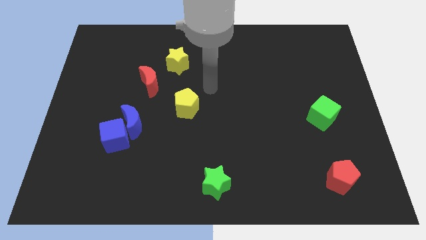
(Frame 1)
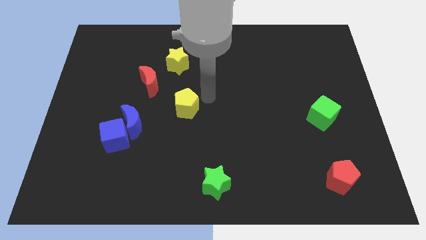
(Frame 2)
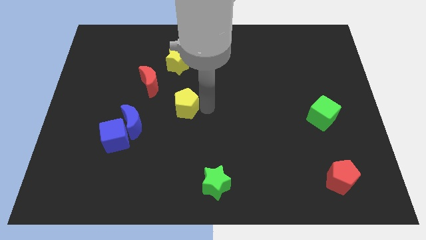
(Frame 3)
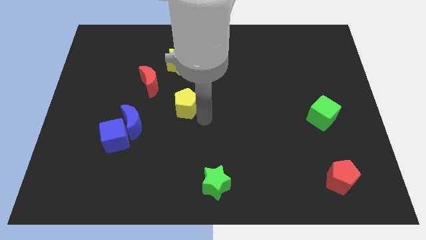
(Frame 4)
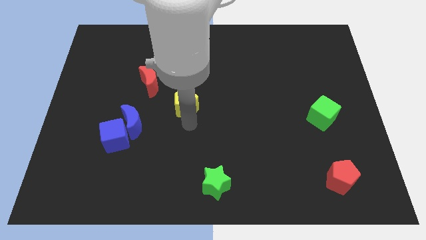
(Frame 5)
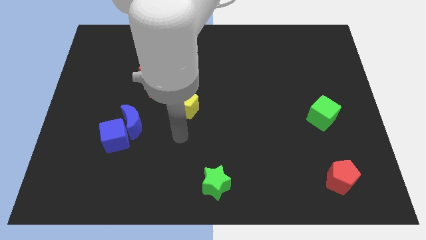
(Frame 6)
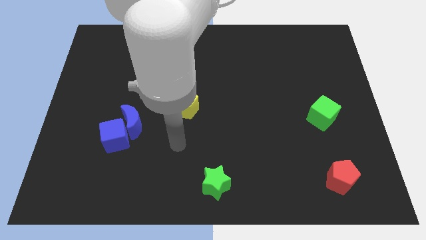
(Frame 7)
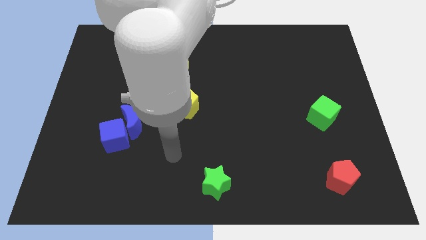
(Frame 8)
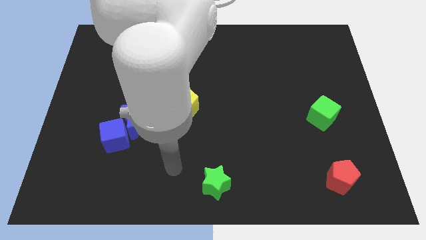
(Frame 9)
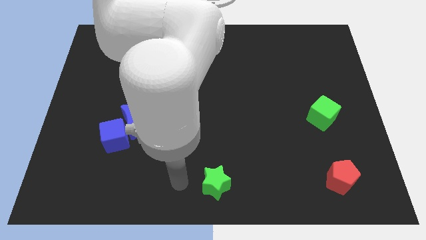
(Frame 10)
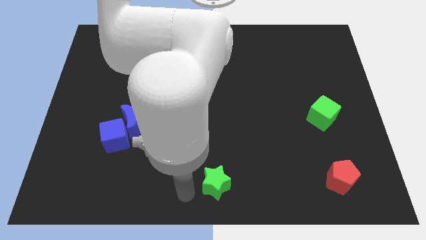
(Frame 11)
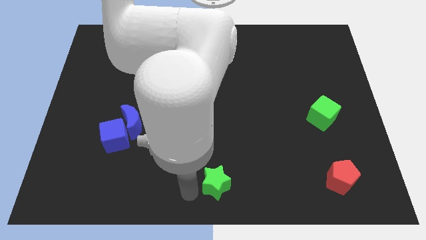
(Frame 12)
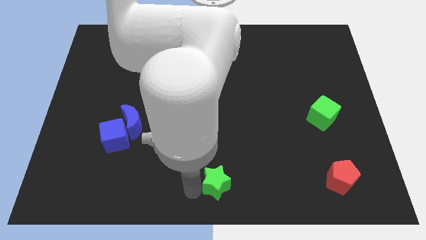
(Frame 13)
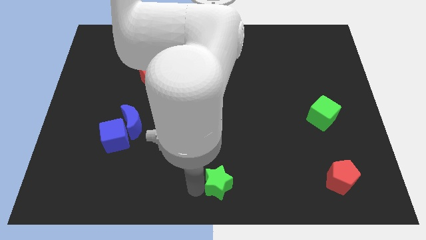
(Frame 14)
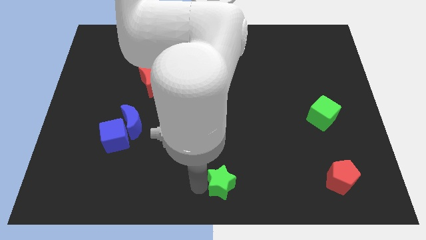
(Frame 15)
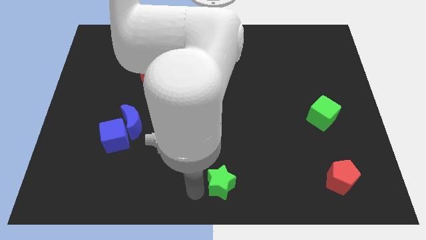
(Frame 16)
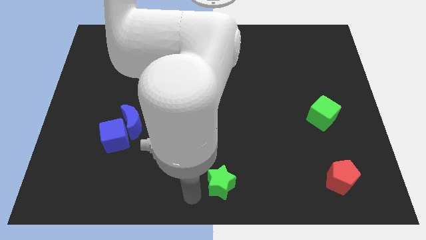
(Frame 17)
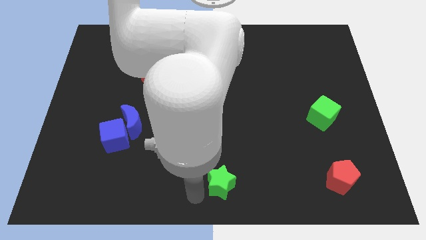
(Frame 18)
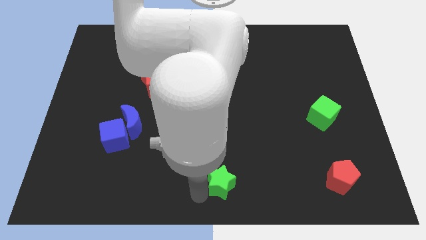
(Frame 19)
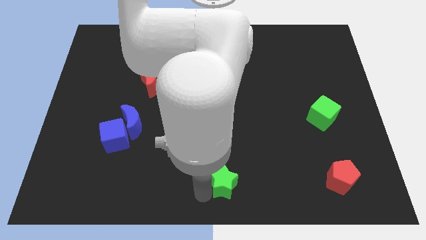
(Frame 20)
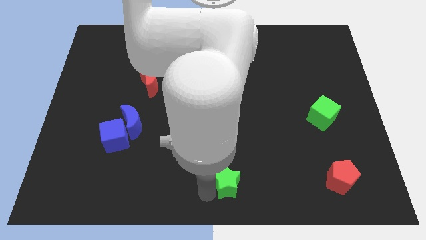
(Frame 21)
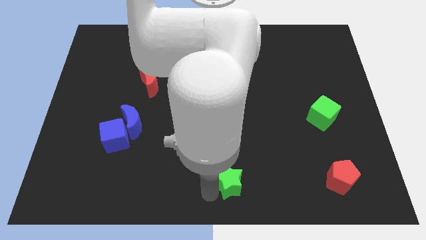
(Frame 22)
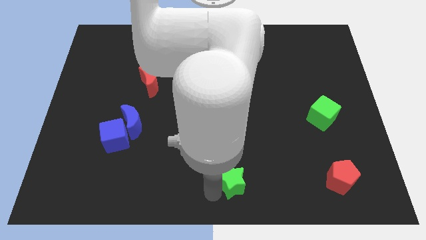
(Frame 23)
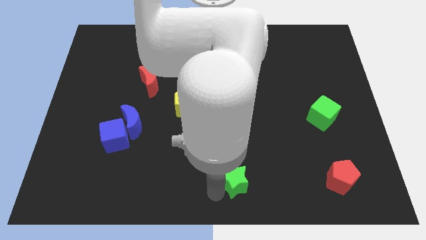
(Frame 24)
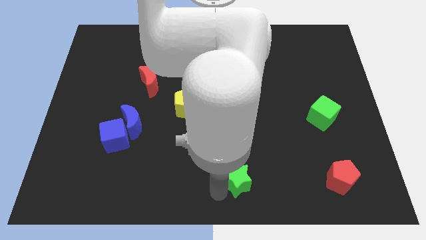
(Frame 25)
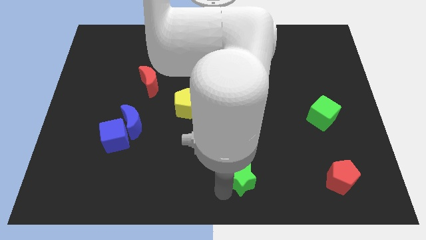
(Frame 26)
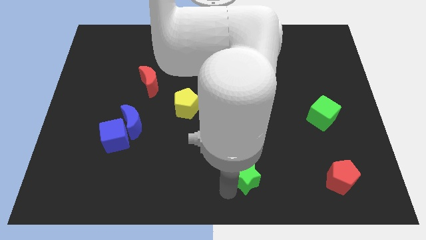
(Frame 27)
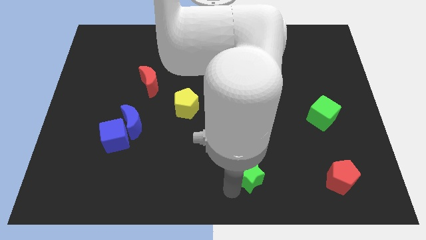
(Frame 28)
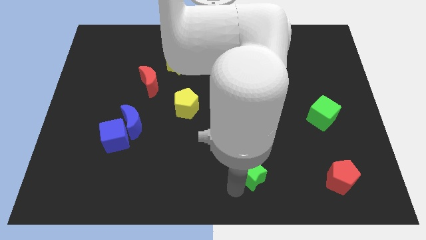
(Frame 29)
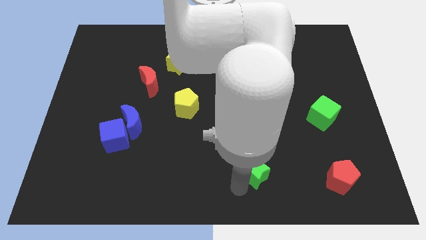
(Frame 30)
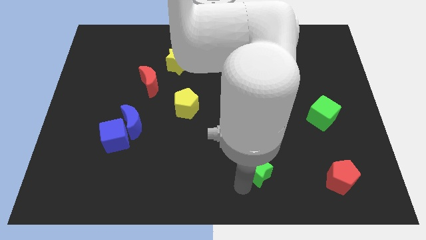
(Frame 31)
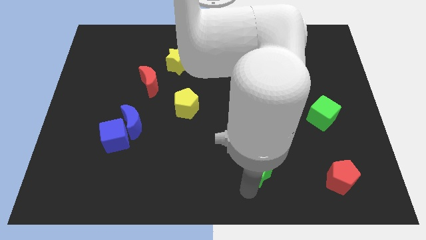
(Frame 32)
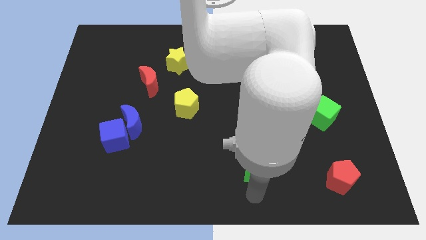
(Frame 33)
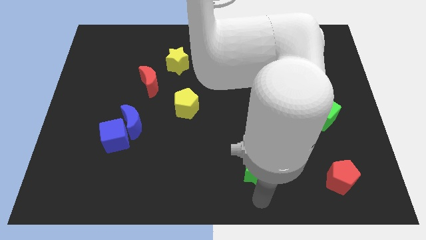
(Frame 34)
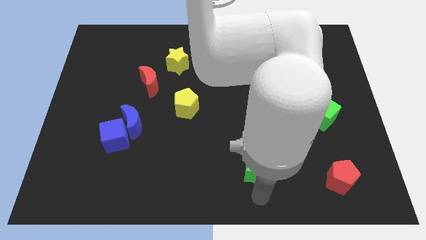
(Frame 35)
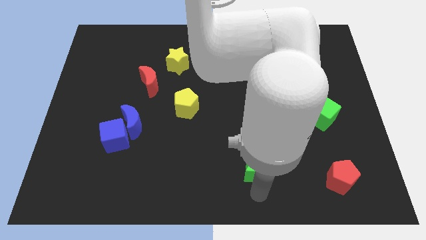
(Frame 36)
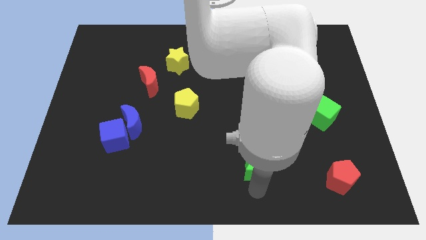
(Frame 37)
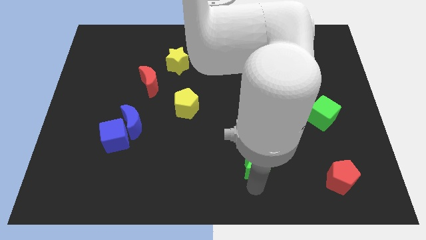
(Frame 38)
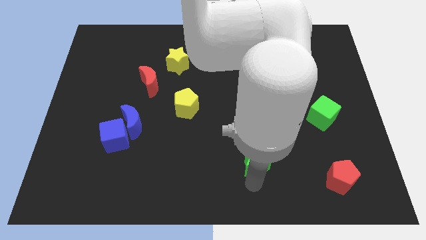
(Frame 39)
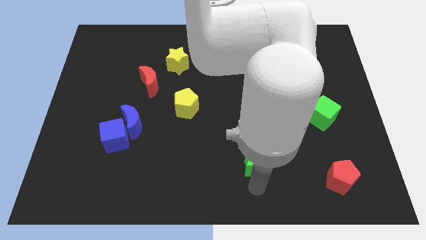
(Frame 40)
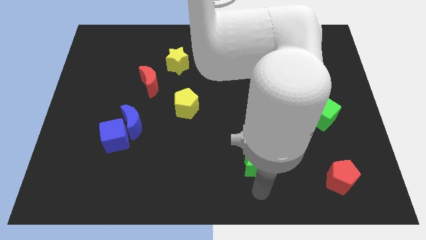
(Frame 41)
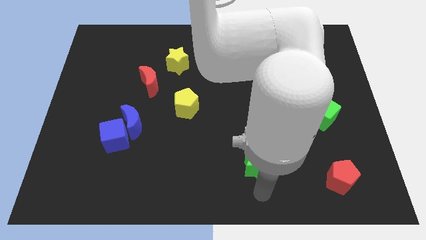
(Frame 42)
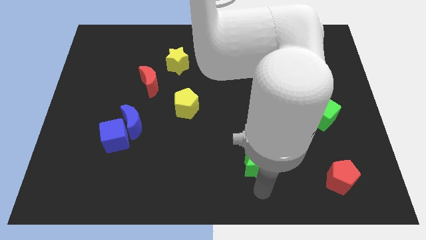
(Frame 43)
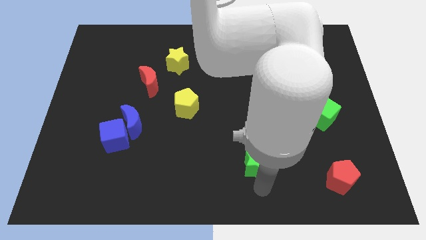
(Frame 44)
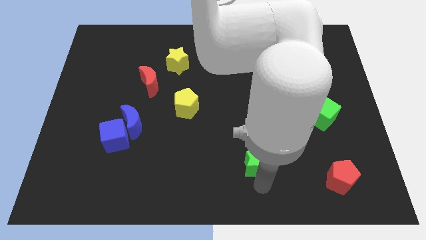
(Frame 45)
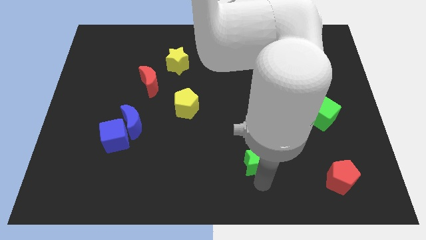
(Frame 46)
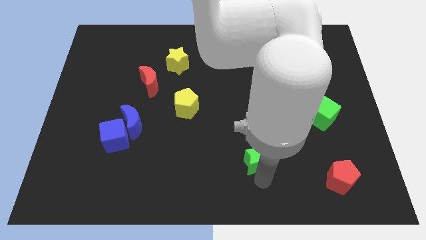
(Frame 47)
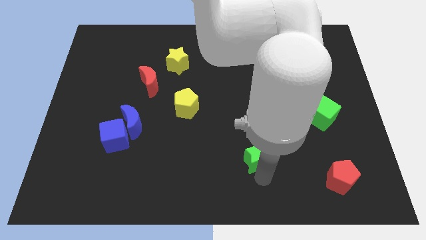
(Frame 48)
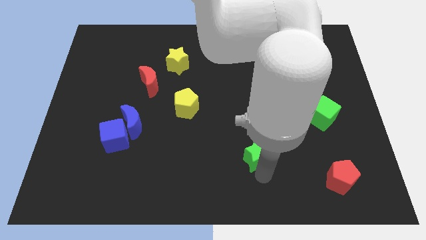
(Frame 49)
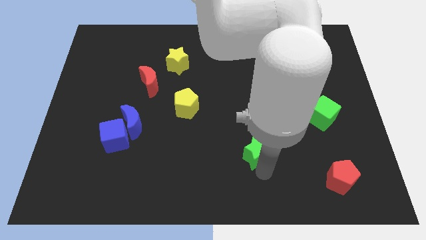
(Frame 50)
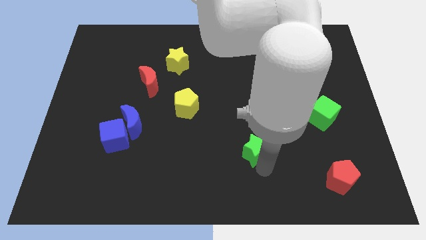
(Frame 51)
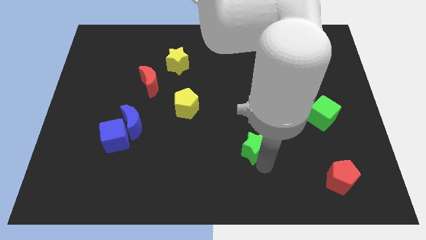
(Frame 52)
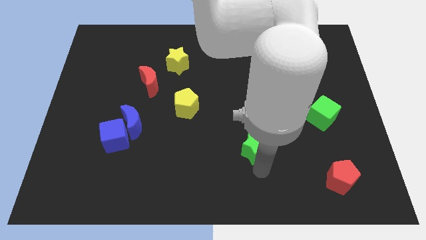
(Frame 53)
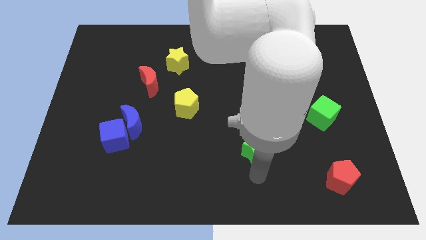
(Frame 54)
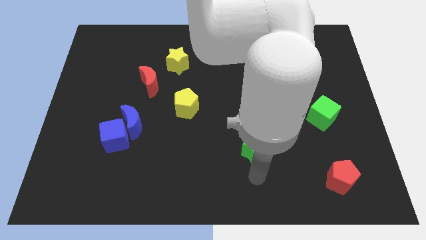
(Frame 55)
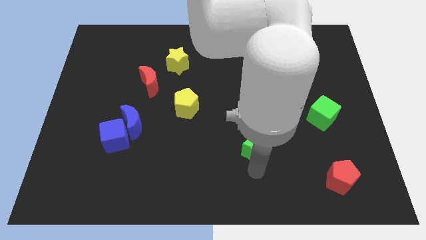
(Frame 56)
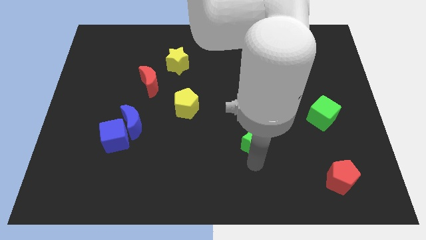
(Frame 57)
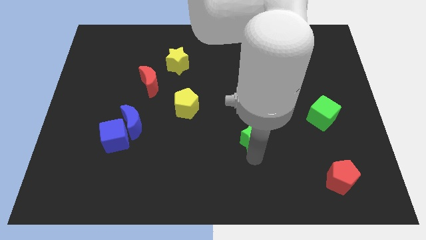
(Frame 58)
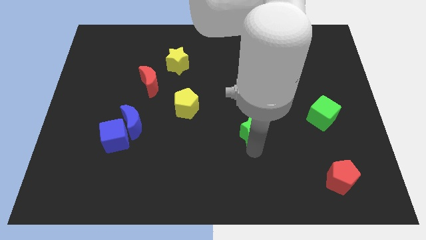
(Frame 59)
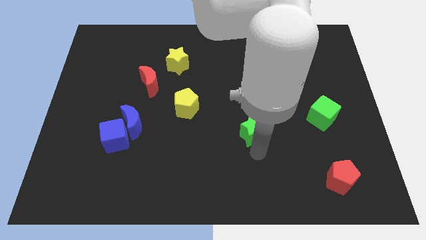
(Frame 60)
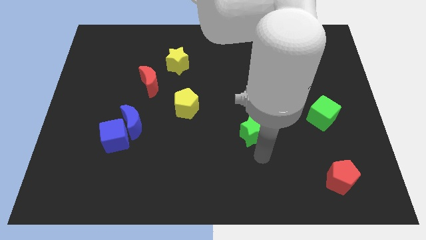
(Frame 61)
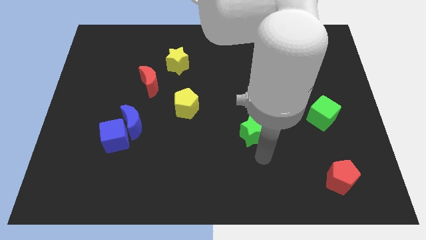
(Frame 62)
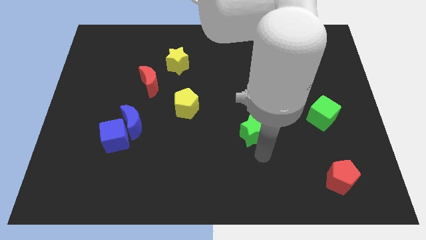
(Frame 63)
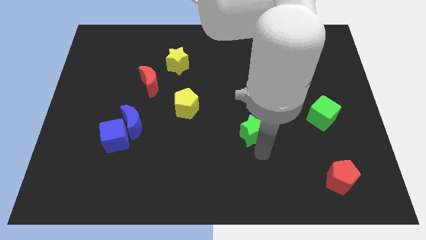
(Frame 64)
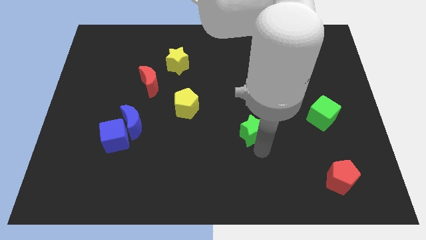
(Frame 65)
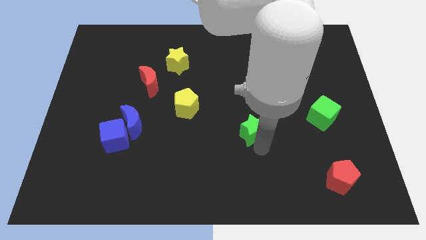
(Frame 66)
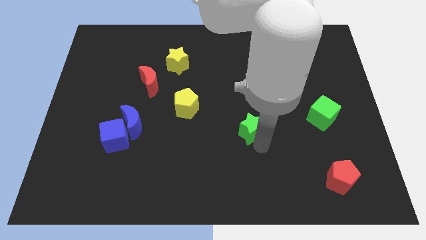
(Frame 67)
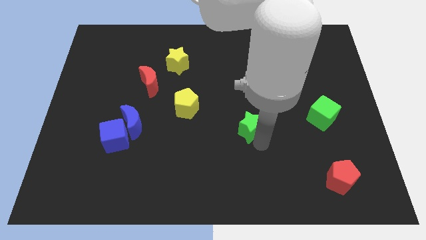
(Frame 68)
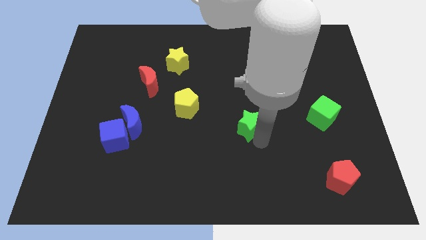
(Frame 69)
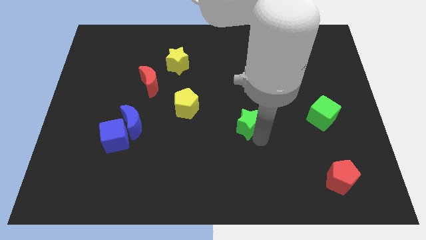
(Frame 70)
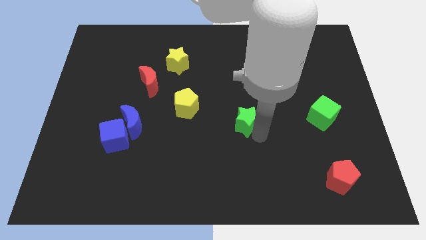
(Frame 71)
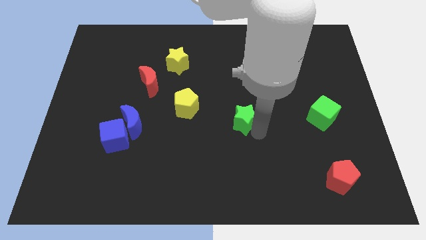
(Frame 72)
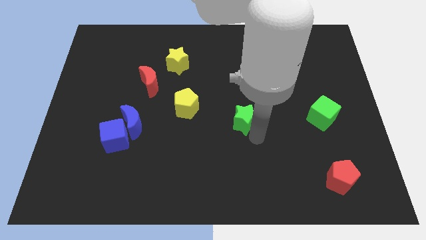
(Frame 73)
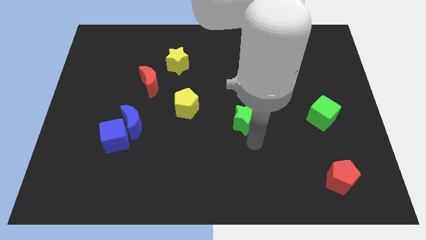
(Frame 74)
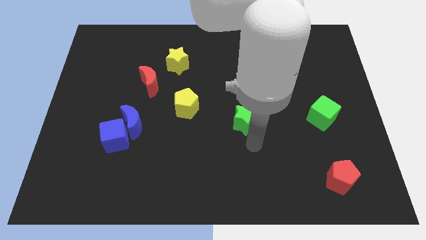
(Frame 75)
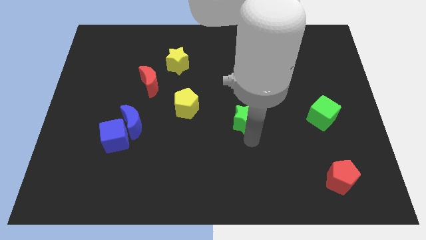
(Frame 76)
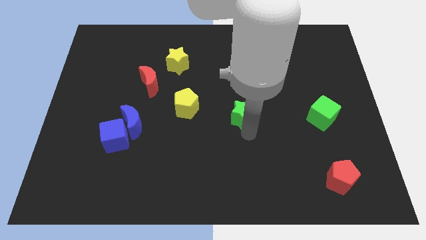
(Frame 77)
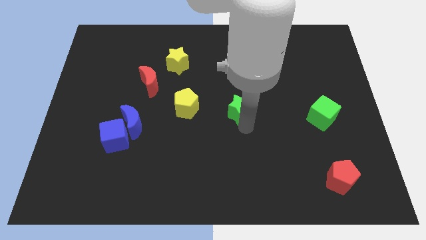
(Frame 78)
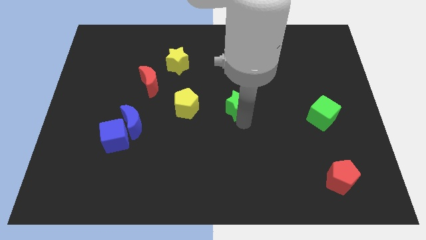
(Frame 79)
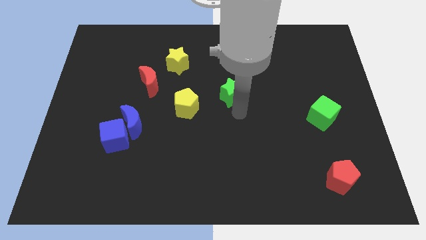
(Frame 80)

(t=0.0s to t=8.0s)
slide the green star upwards
